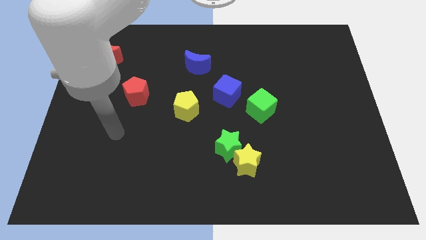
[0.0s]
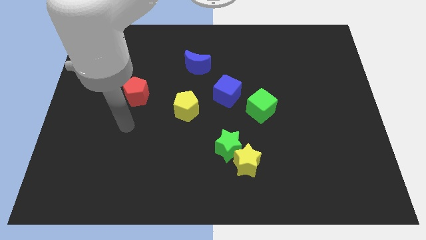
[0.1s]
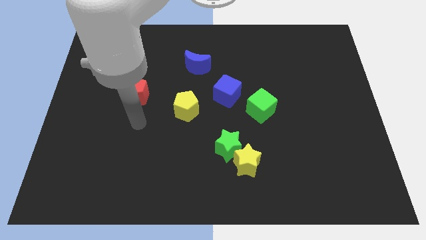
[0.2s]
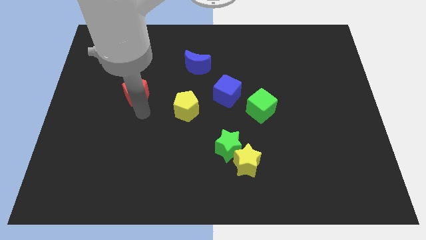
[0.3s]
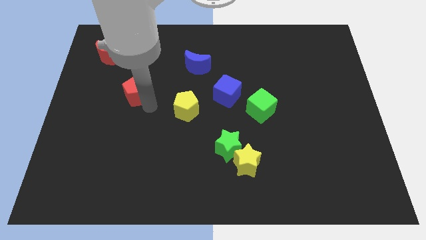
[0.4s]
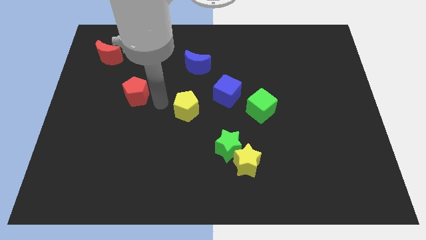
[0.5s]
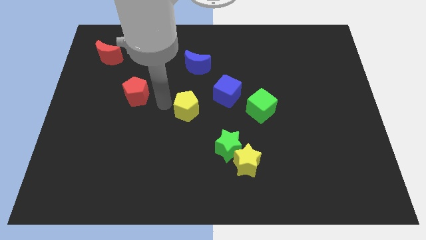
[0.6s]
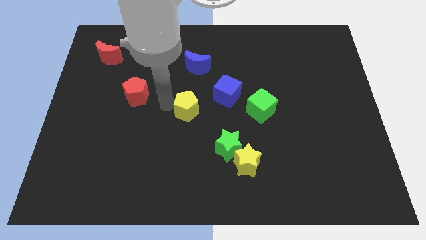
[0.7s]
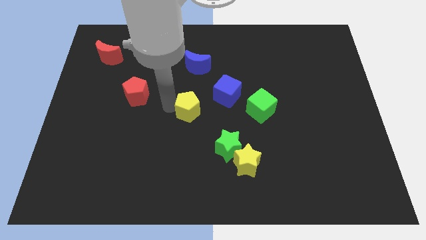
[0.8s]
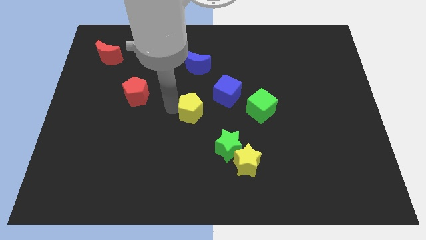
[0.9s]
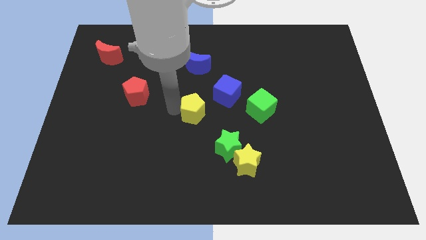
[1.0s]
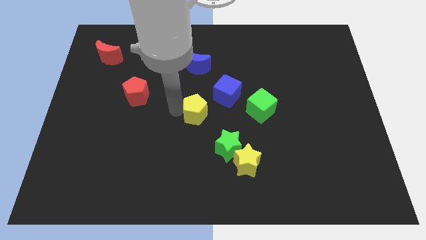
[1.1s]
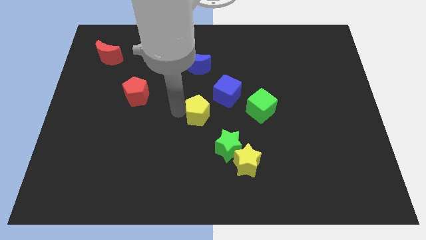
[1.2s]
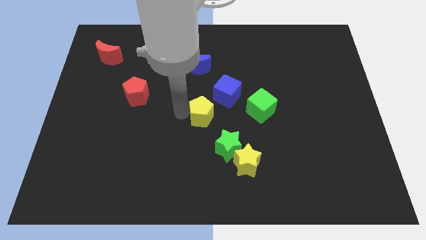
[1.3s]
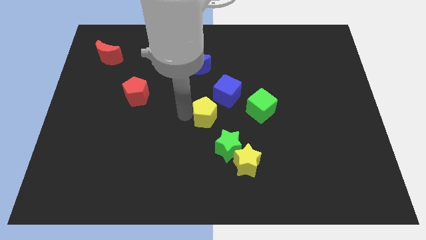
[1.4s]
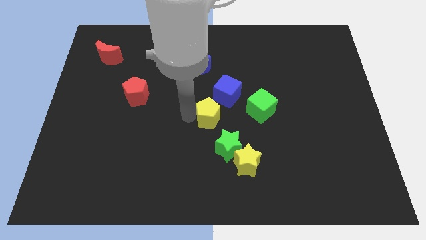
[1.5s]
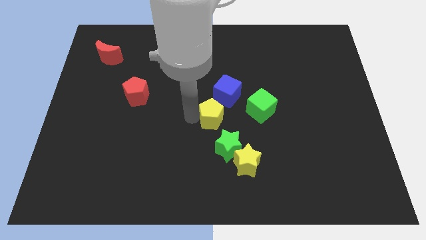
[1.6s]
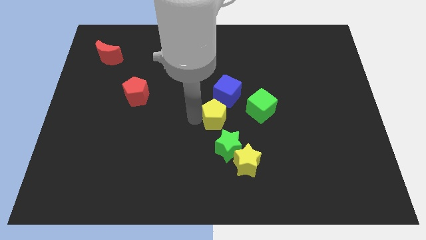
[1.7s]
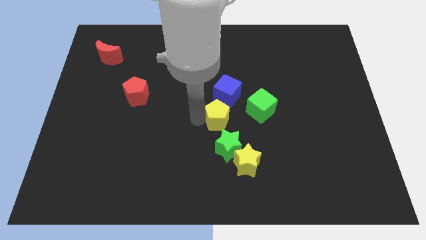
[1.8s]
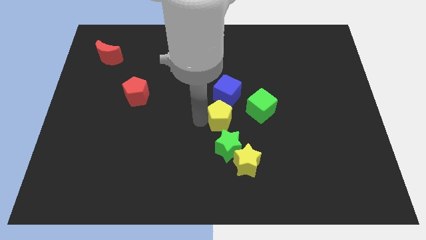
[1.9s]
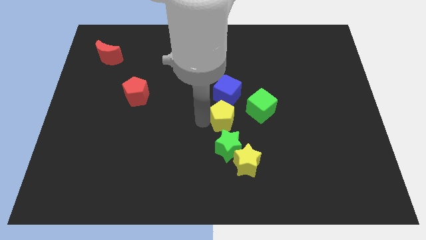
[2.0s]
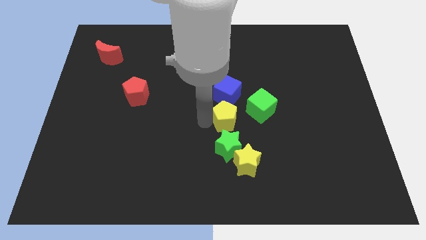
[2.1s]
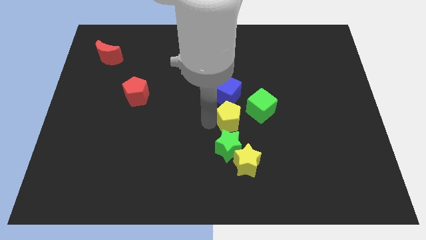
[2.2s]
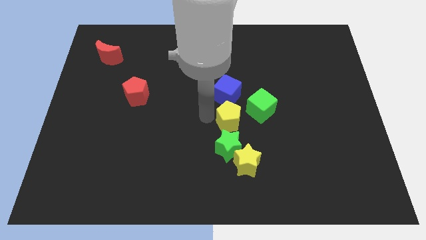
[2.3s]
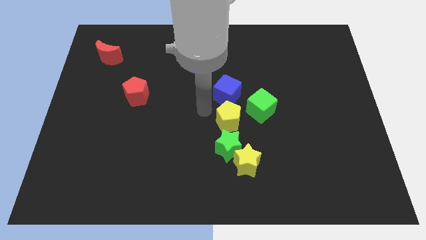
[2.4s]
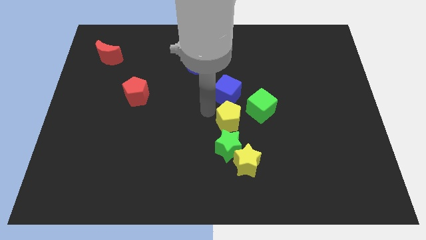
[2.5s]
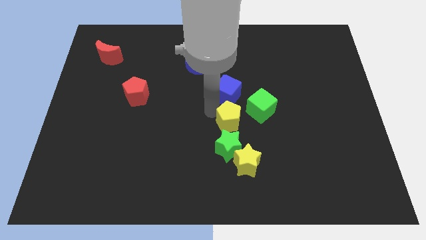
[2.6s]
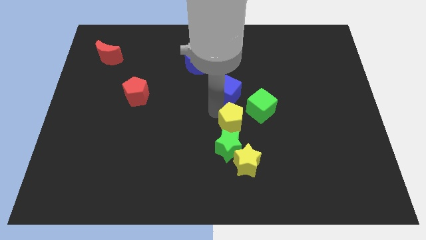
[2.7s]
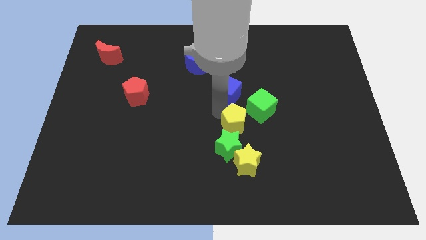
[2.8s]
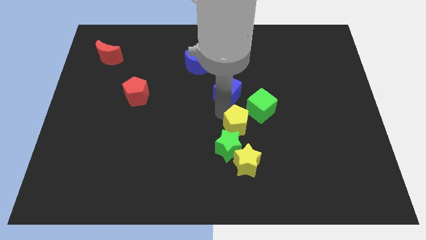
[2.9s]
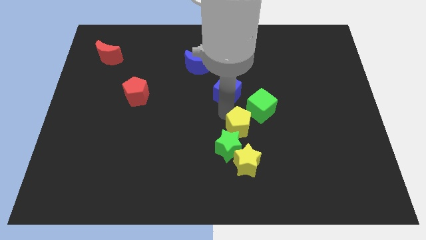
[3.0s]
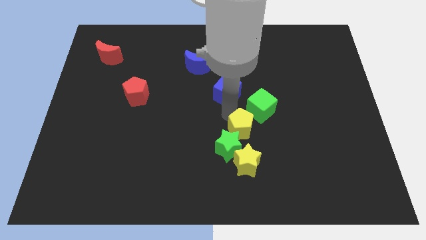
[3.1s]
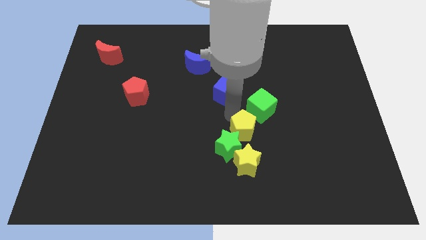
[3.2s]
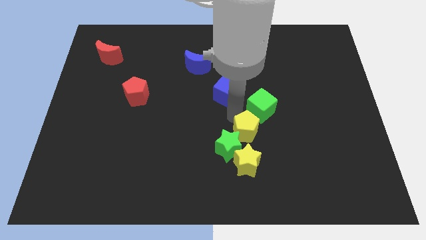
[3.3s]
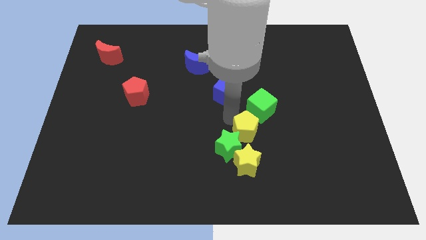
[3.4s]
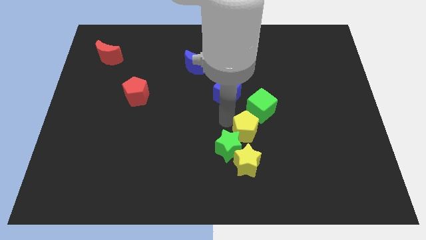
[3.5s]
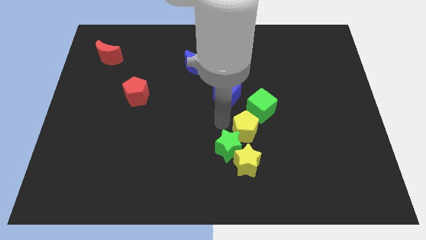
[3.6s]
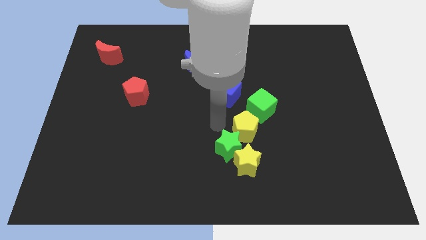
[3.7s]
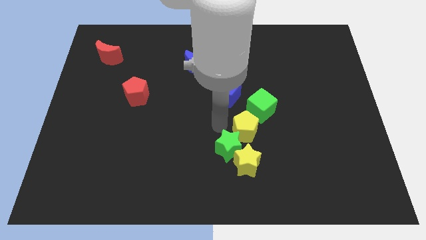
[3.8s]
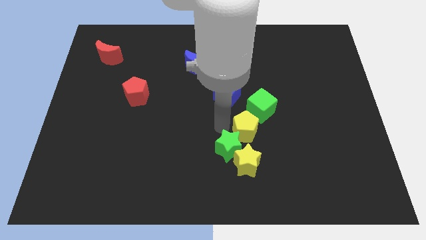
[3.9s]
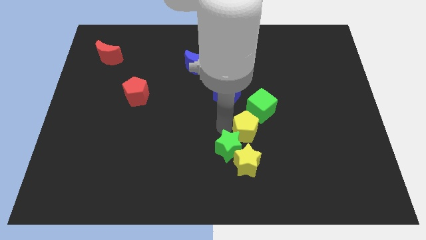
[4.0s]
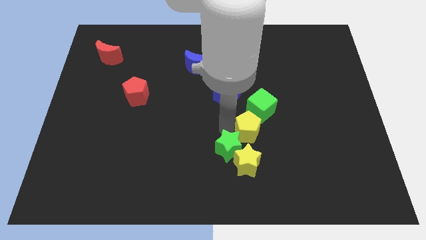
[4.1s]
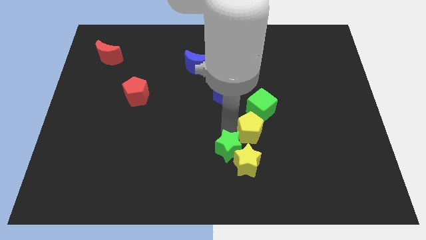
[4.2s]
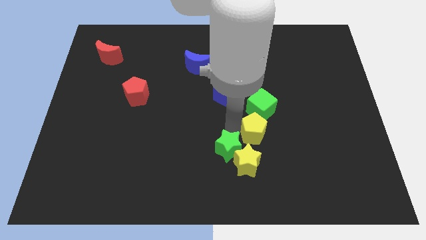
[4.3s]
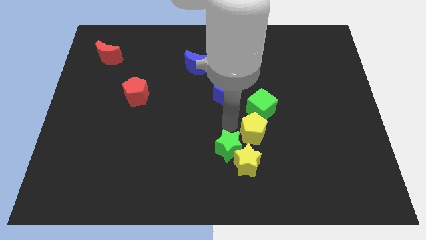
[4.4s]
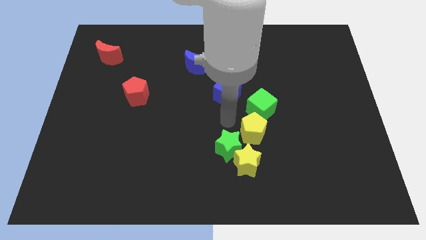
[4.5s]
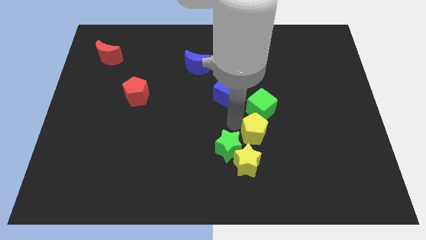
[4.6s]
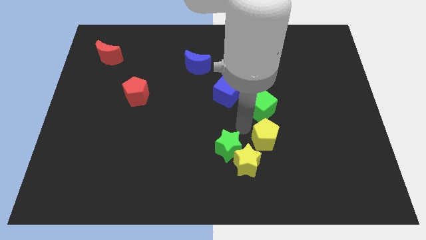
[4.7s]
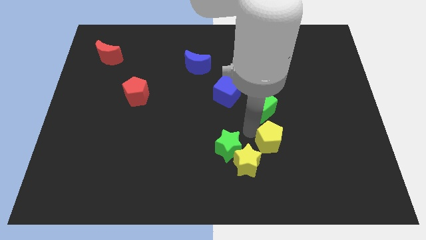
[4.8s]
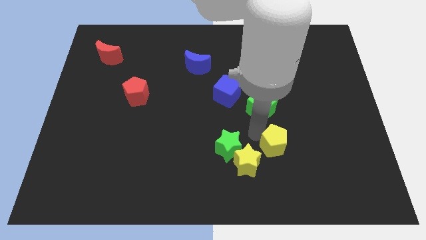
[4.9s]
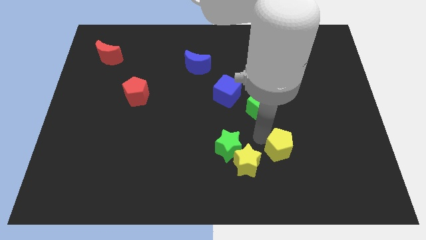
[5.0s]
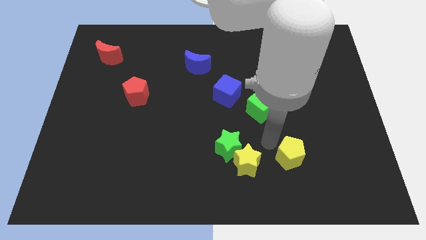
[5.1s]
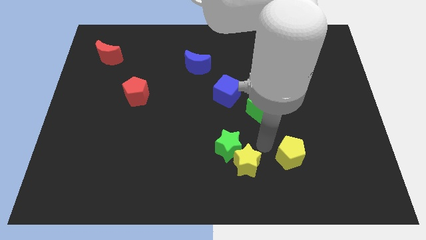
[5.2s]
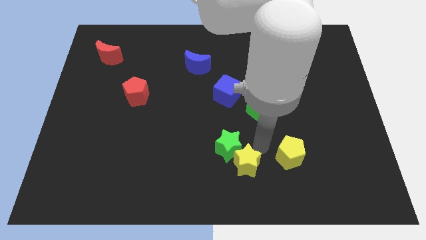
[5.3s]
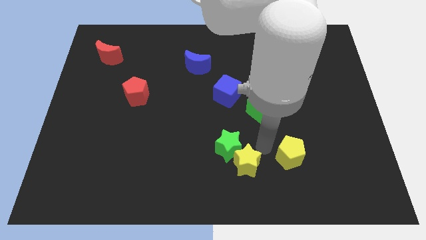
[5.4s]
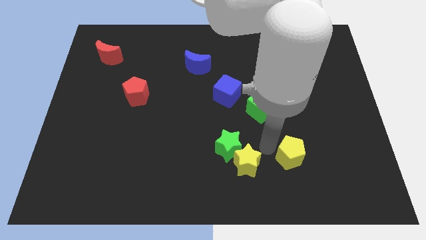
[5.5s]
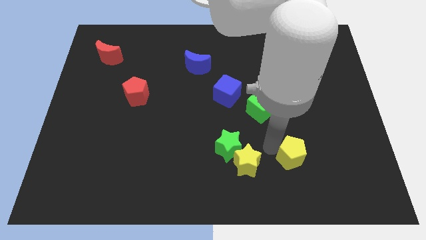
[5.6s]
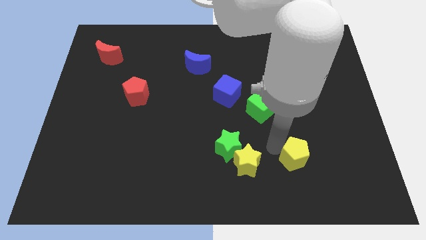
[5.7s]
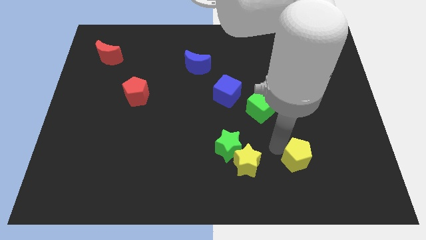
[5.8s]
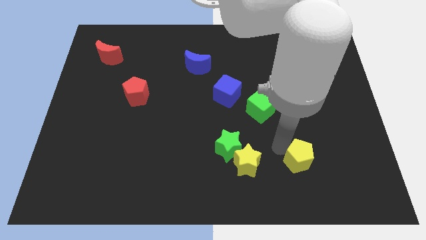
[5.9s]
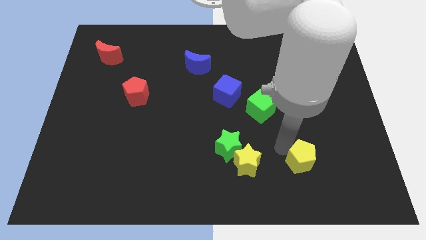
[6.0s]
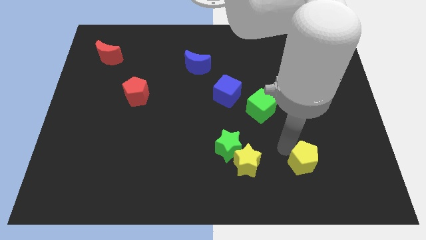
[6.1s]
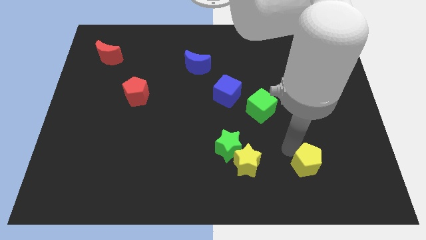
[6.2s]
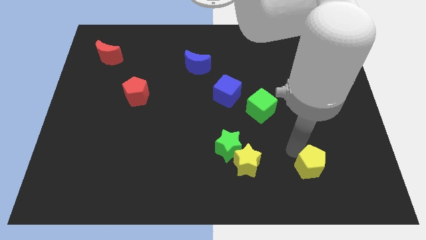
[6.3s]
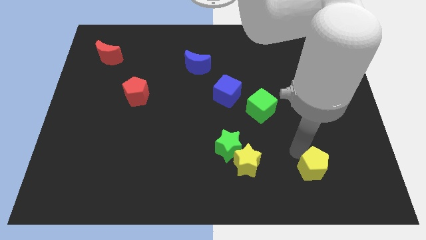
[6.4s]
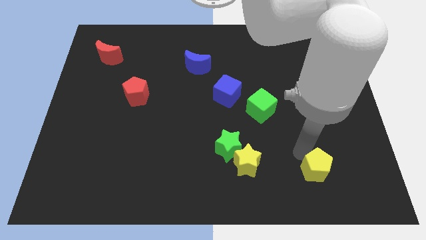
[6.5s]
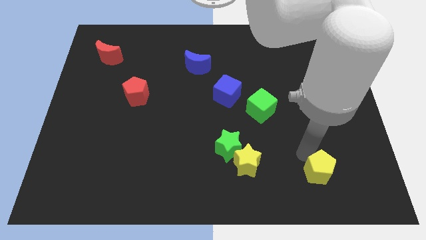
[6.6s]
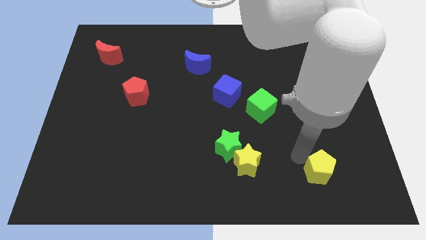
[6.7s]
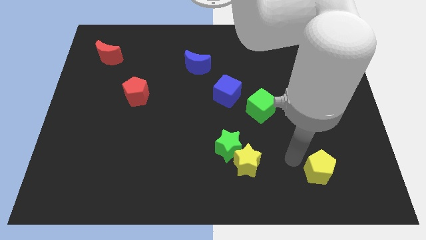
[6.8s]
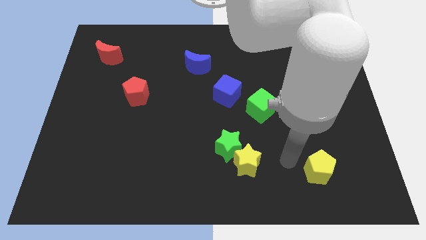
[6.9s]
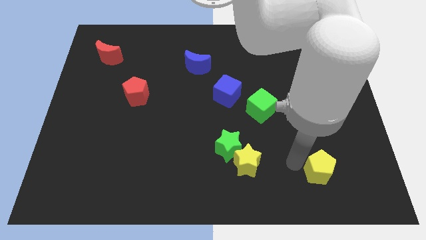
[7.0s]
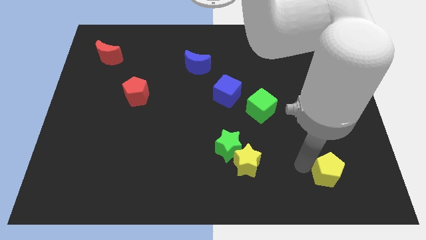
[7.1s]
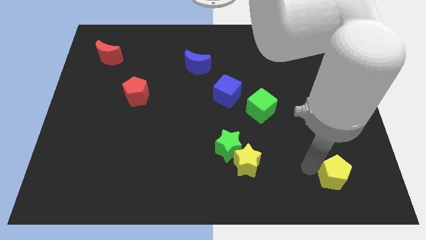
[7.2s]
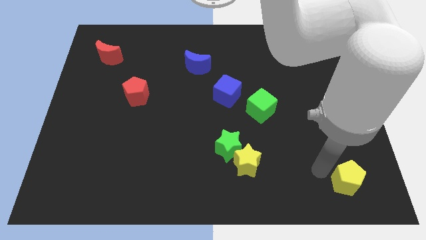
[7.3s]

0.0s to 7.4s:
put the yellow pentagon to the lower right corner
